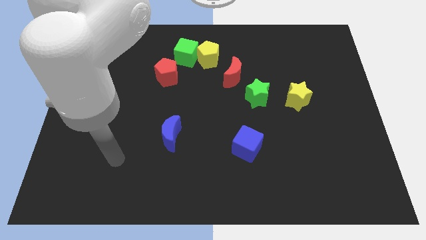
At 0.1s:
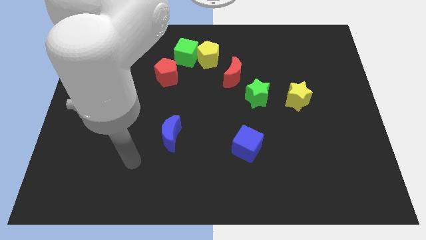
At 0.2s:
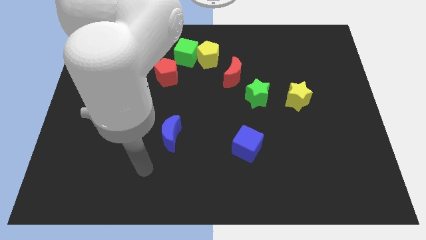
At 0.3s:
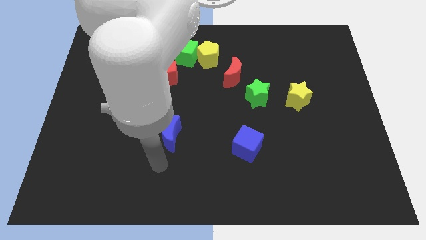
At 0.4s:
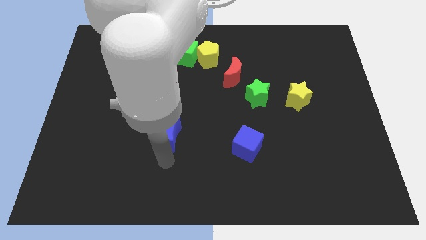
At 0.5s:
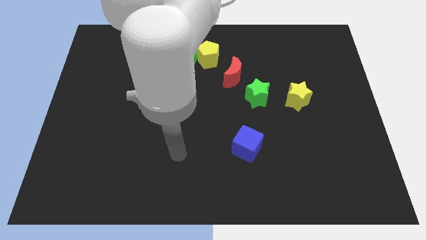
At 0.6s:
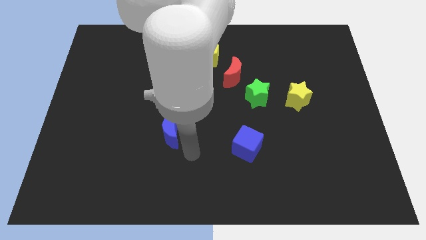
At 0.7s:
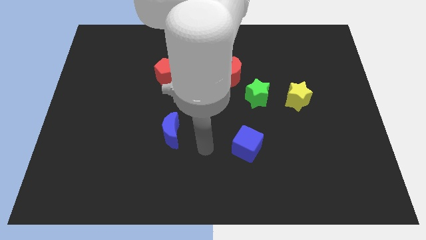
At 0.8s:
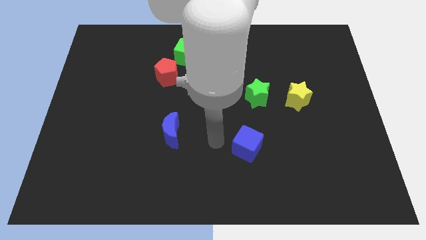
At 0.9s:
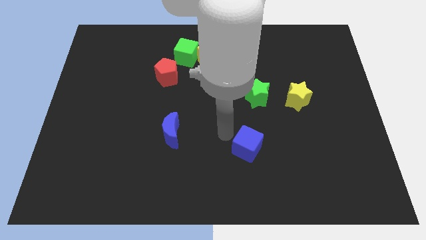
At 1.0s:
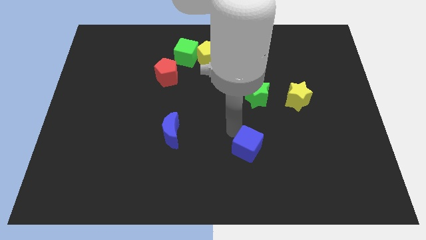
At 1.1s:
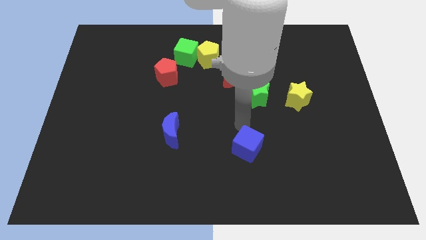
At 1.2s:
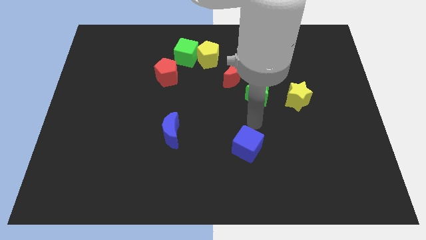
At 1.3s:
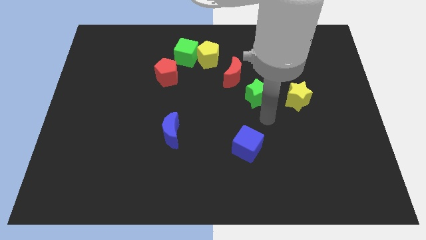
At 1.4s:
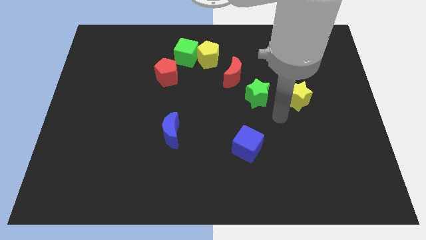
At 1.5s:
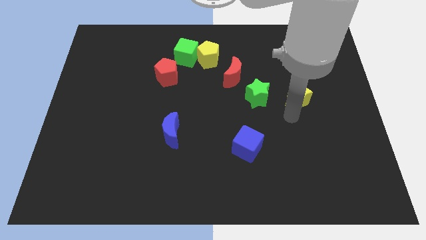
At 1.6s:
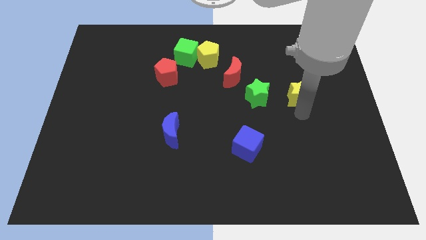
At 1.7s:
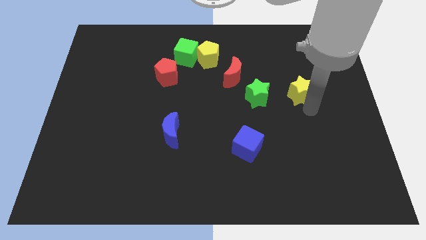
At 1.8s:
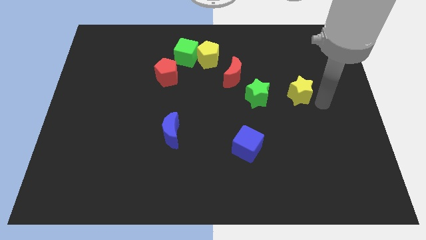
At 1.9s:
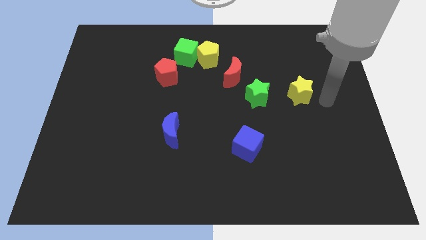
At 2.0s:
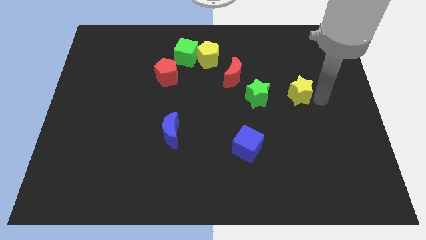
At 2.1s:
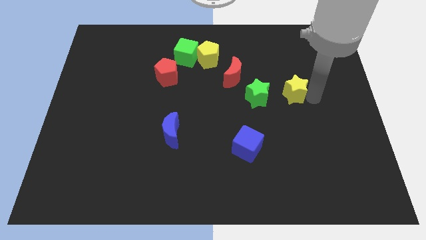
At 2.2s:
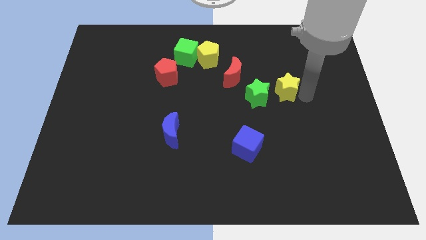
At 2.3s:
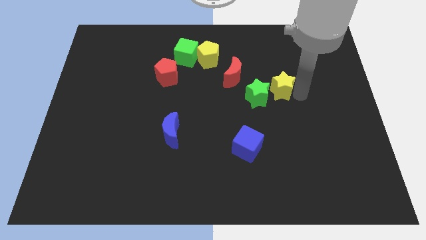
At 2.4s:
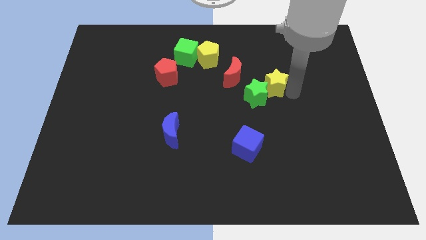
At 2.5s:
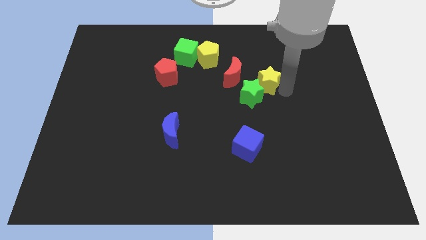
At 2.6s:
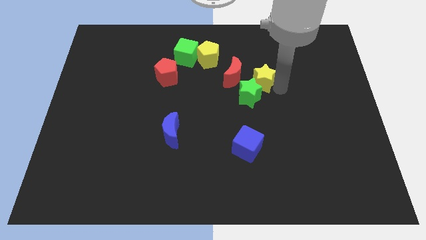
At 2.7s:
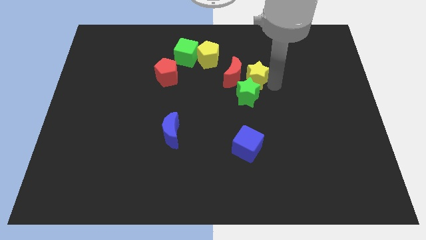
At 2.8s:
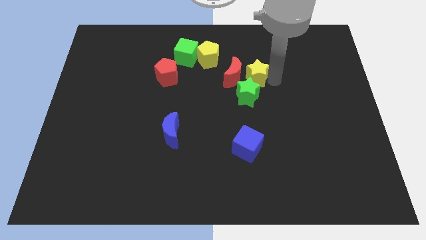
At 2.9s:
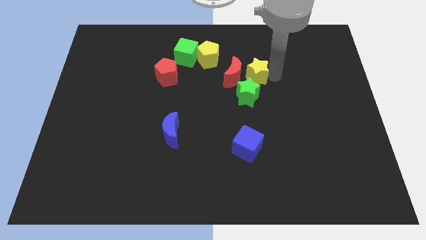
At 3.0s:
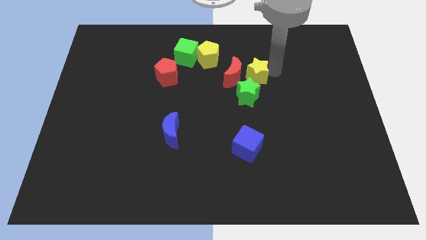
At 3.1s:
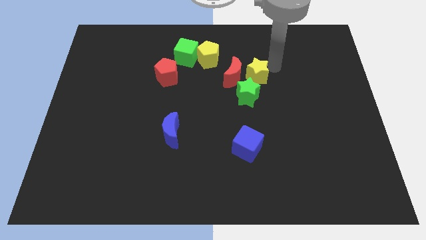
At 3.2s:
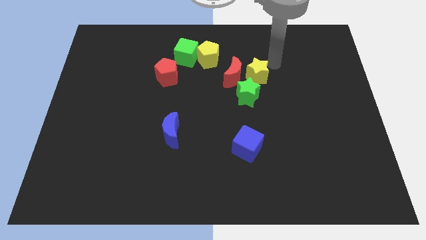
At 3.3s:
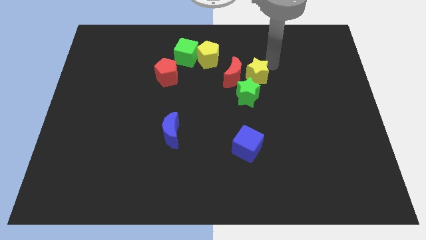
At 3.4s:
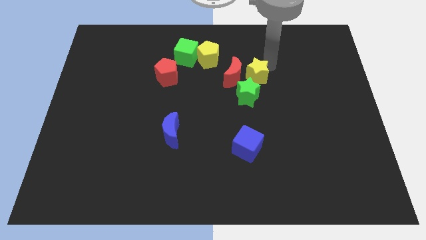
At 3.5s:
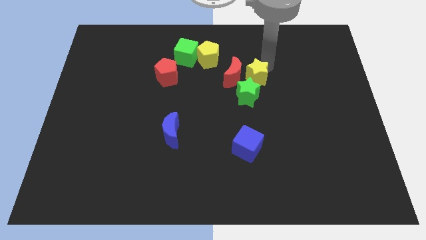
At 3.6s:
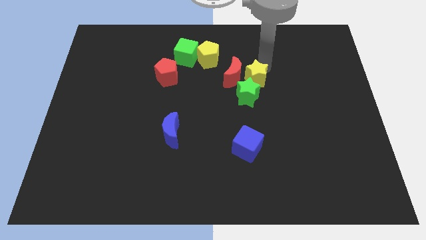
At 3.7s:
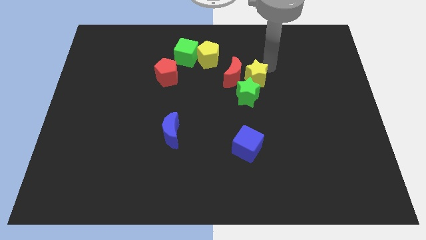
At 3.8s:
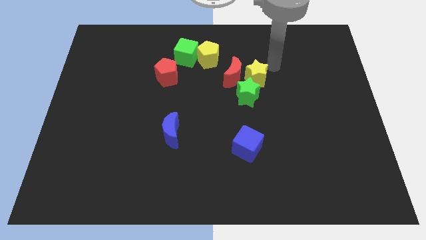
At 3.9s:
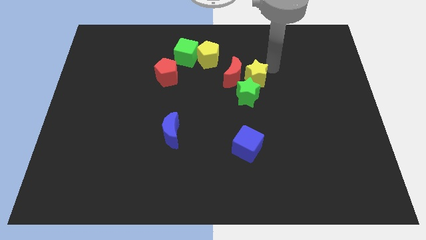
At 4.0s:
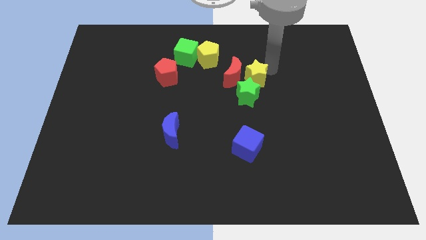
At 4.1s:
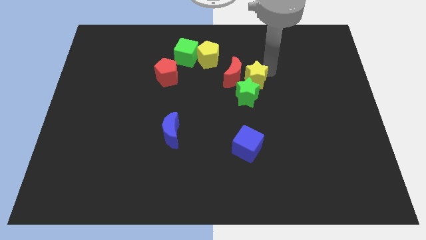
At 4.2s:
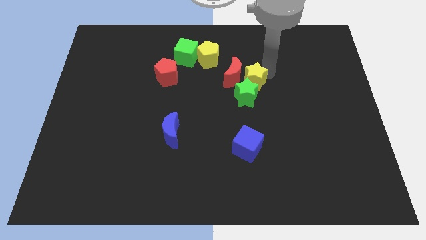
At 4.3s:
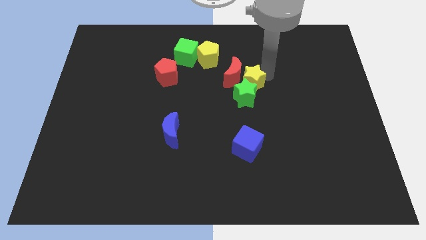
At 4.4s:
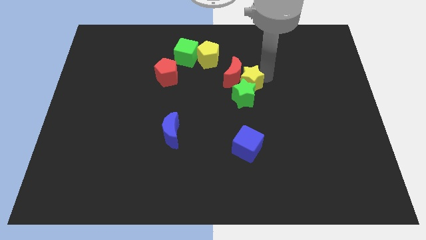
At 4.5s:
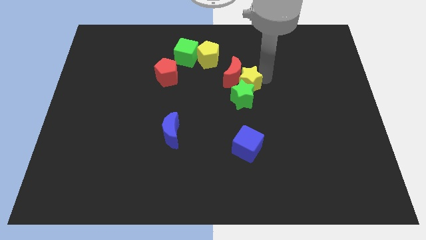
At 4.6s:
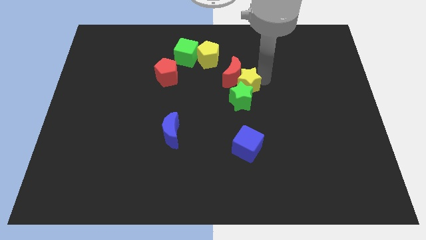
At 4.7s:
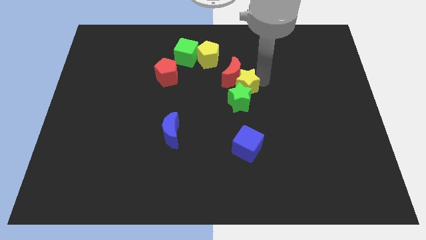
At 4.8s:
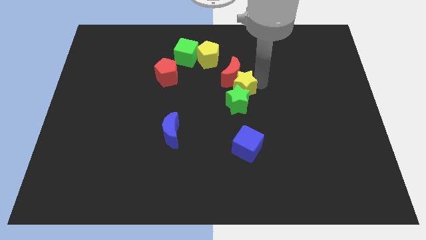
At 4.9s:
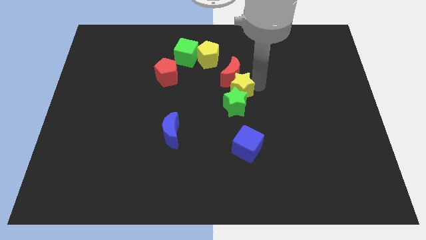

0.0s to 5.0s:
push the yellow star to the bottom left of the red moon
